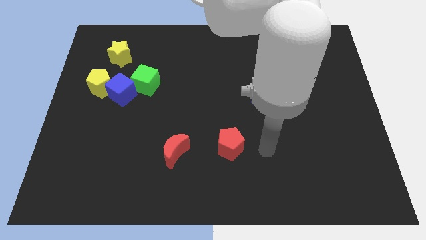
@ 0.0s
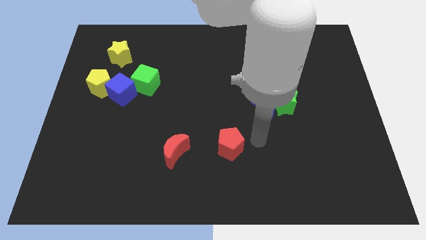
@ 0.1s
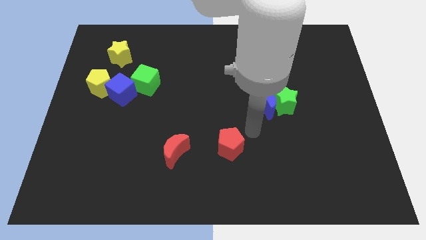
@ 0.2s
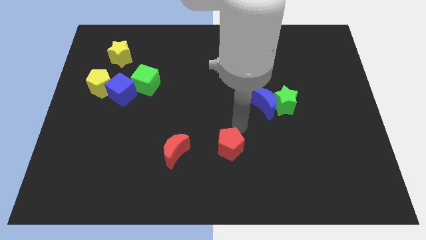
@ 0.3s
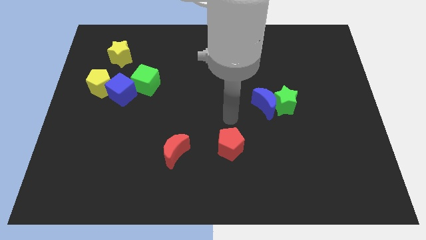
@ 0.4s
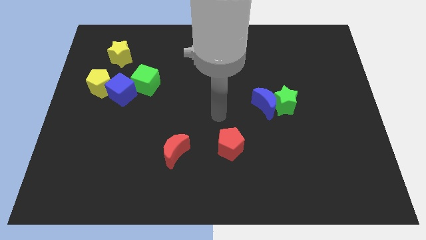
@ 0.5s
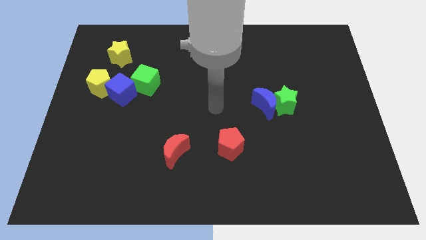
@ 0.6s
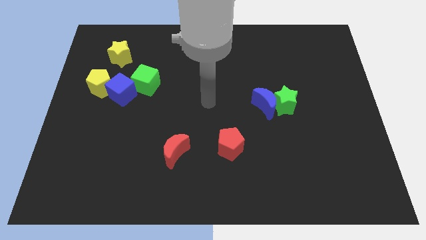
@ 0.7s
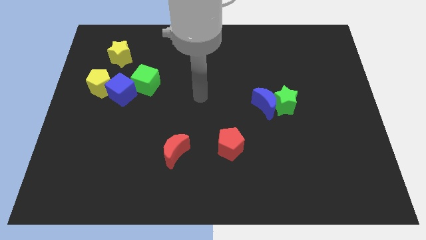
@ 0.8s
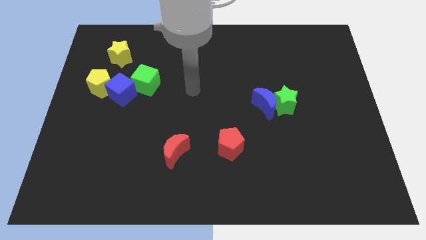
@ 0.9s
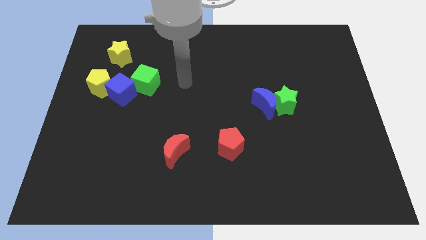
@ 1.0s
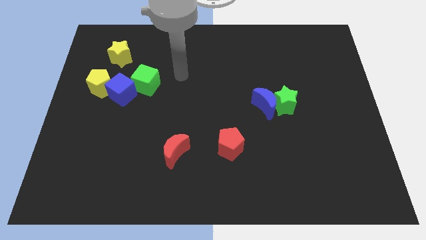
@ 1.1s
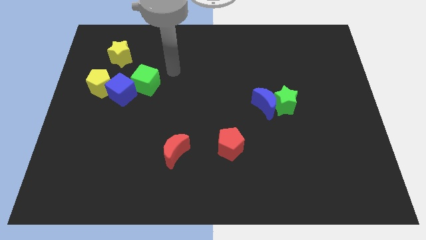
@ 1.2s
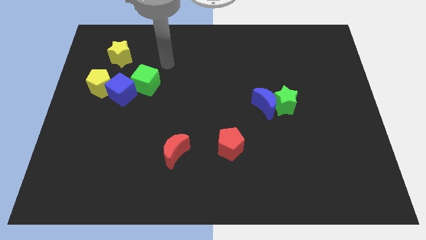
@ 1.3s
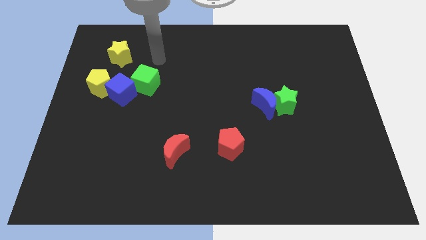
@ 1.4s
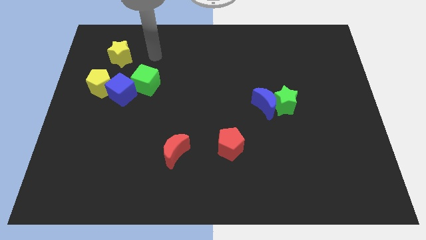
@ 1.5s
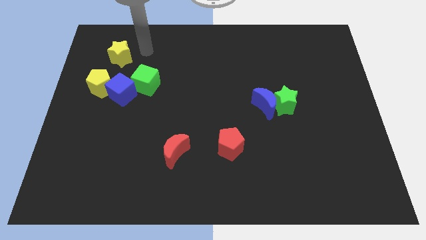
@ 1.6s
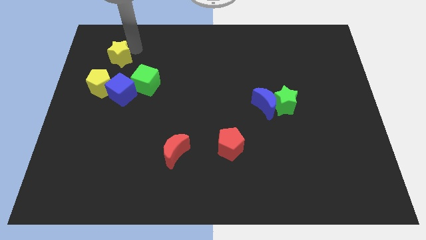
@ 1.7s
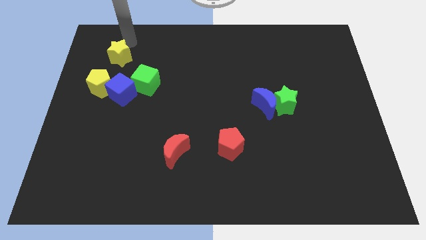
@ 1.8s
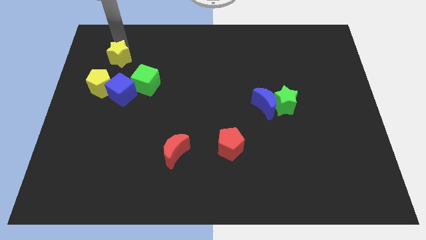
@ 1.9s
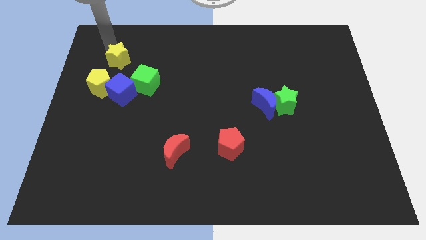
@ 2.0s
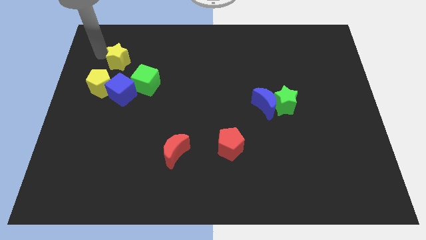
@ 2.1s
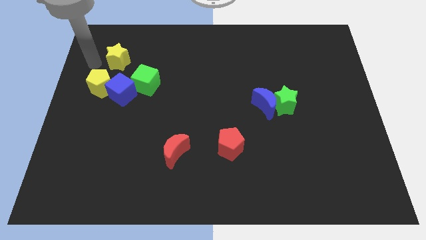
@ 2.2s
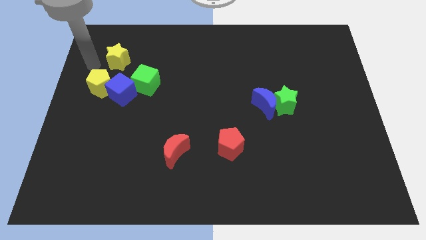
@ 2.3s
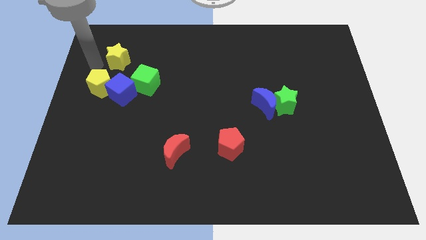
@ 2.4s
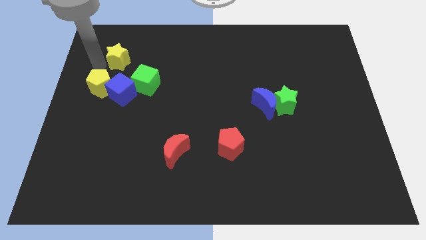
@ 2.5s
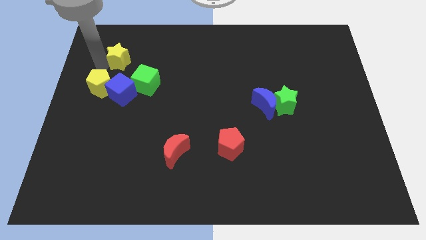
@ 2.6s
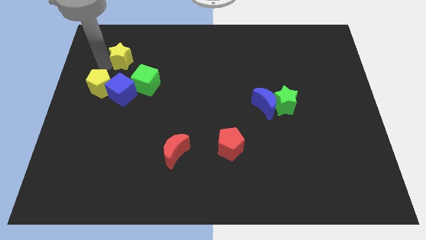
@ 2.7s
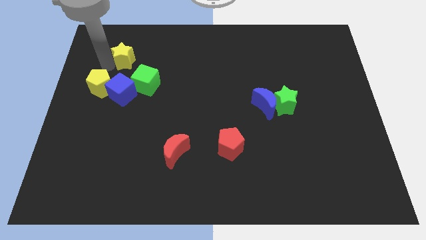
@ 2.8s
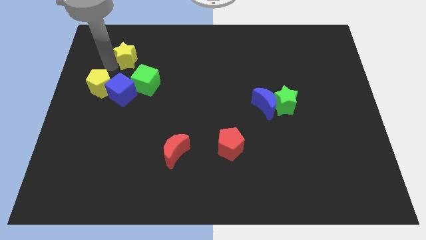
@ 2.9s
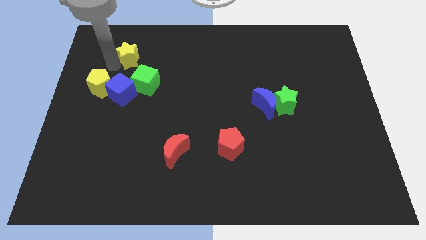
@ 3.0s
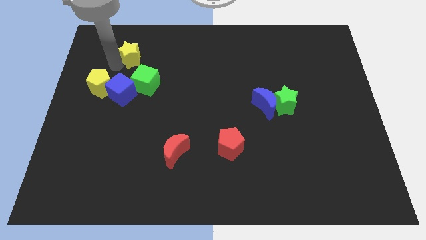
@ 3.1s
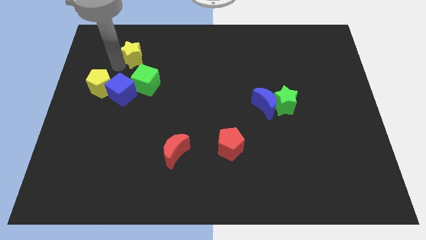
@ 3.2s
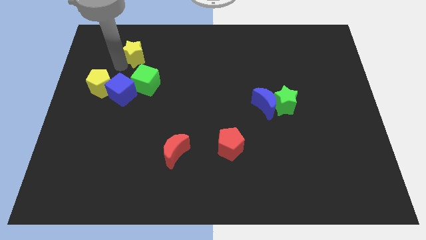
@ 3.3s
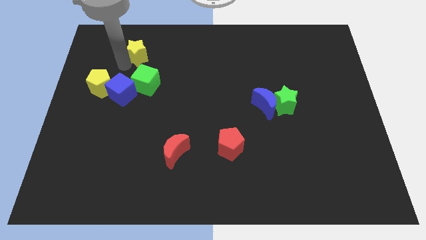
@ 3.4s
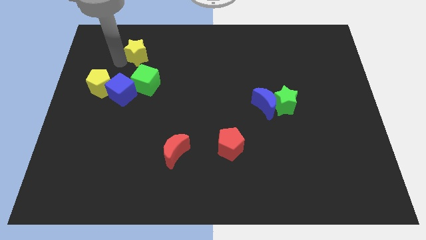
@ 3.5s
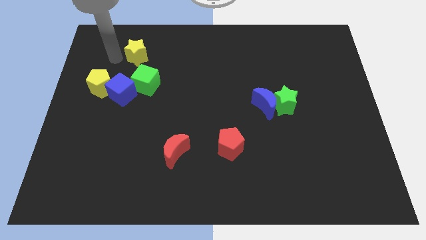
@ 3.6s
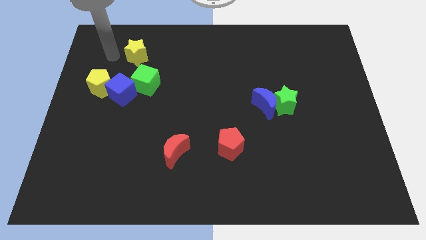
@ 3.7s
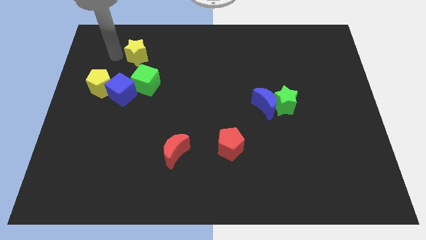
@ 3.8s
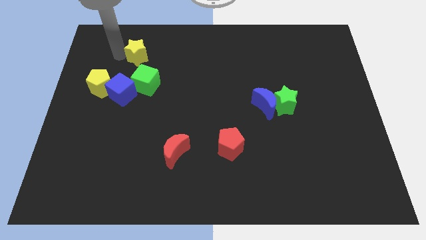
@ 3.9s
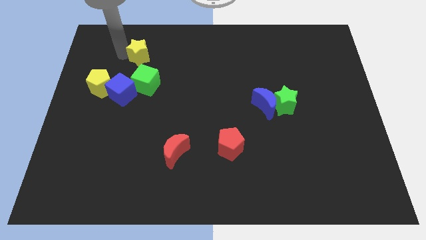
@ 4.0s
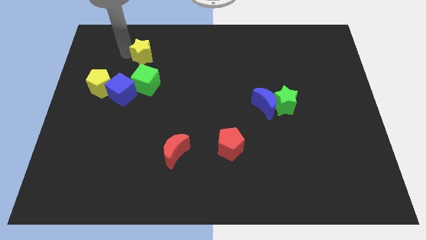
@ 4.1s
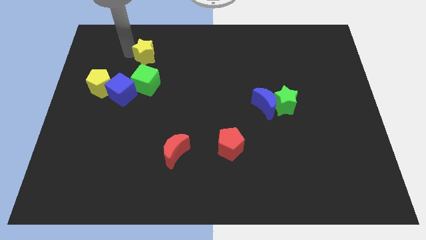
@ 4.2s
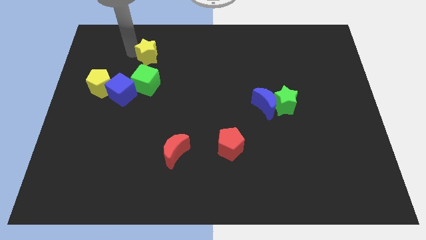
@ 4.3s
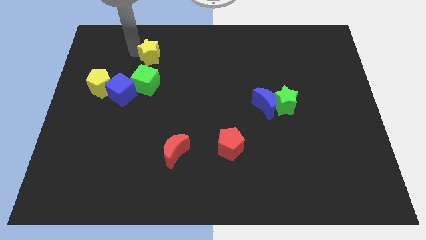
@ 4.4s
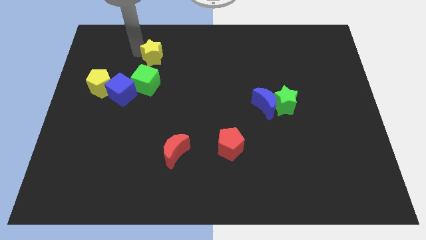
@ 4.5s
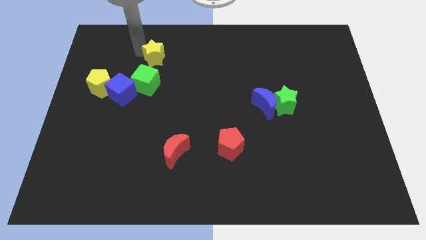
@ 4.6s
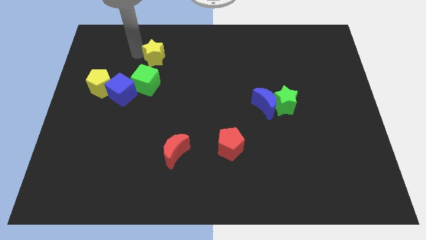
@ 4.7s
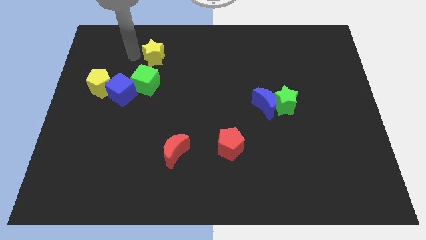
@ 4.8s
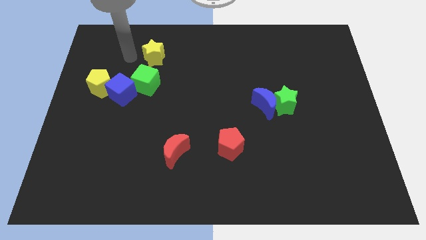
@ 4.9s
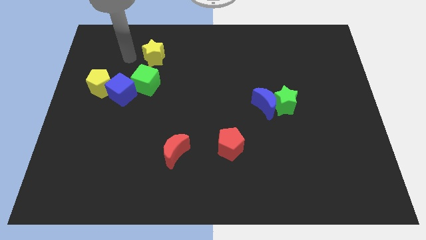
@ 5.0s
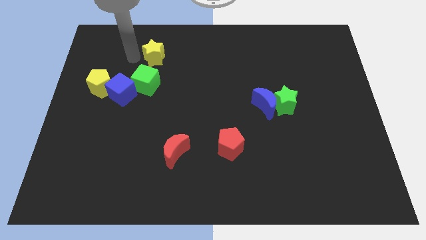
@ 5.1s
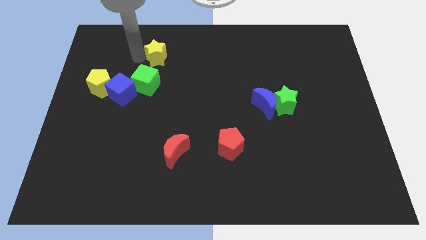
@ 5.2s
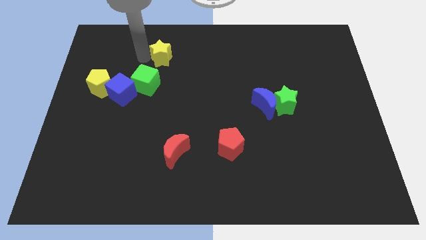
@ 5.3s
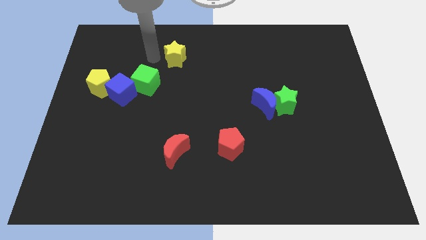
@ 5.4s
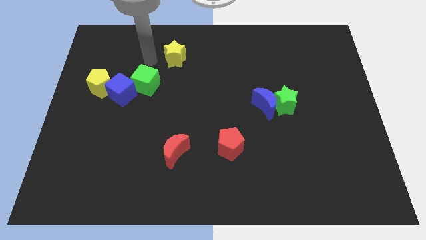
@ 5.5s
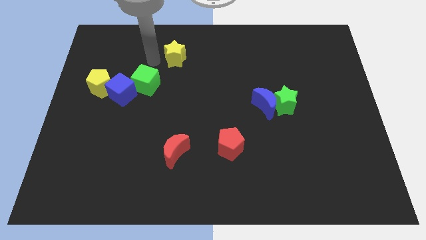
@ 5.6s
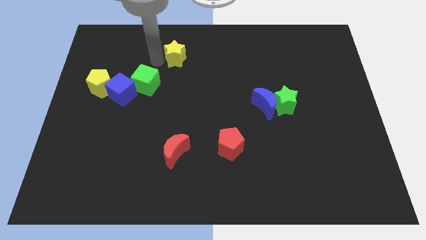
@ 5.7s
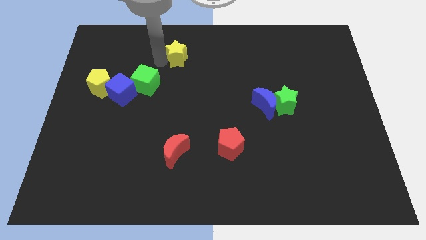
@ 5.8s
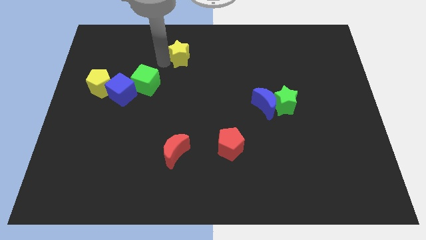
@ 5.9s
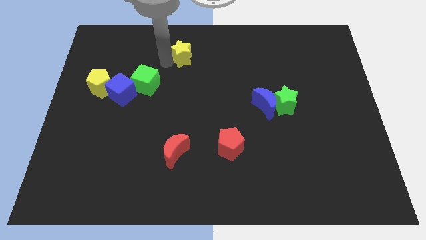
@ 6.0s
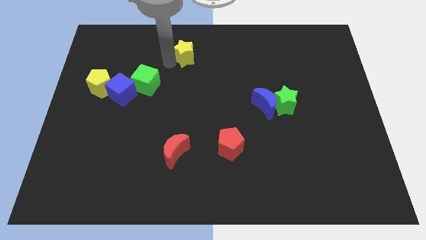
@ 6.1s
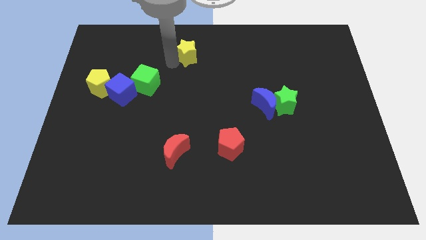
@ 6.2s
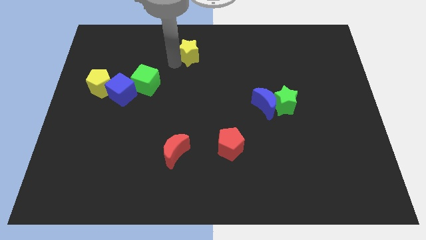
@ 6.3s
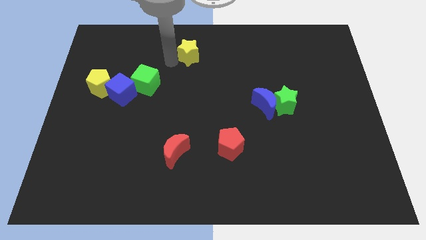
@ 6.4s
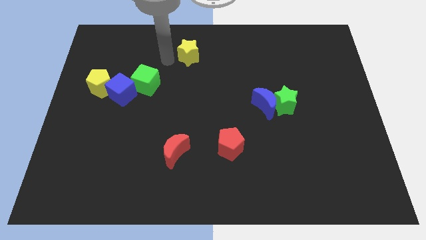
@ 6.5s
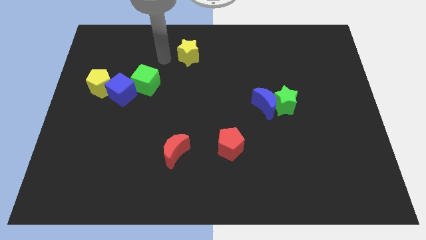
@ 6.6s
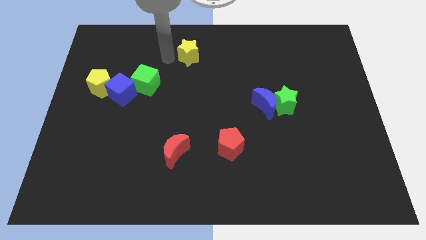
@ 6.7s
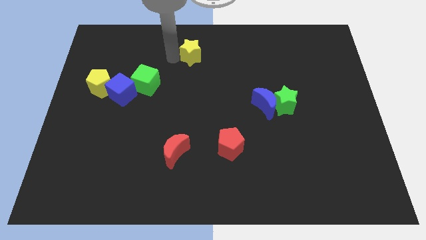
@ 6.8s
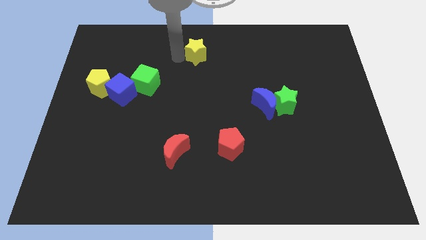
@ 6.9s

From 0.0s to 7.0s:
move the yellow star to the right

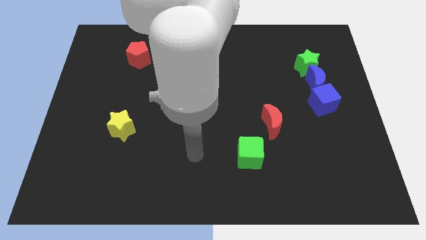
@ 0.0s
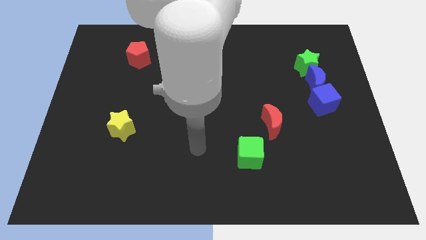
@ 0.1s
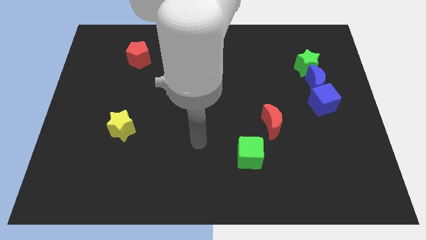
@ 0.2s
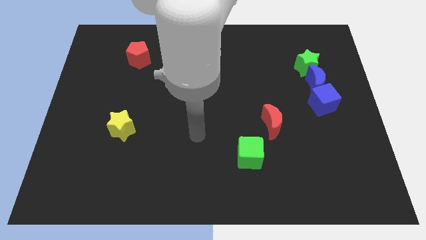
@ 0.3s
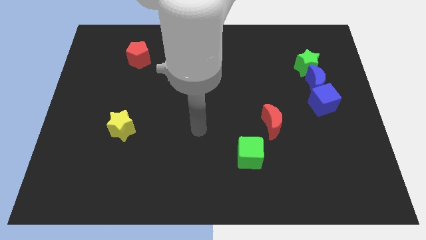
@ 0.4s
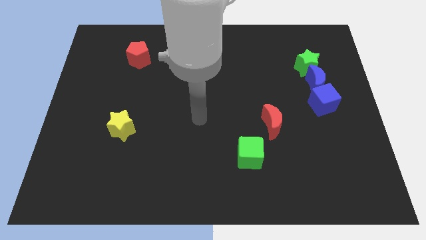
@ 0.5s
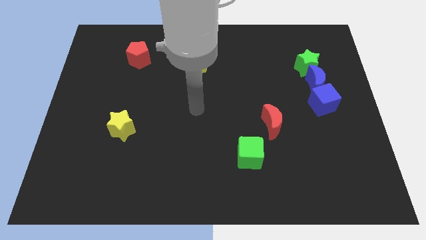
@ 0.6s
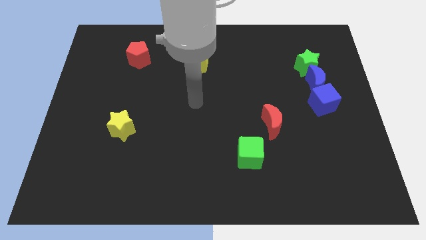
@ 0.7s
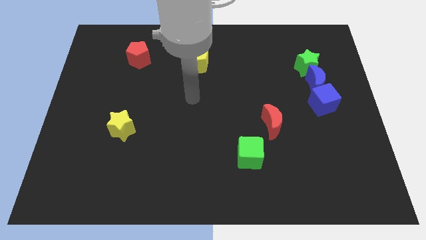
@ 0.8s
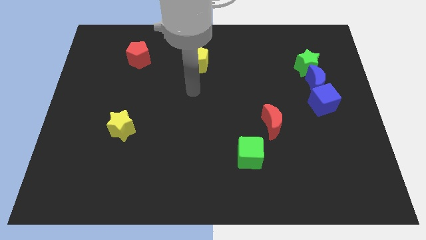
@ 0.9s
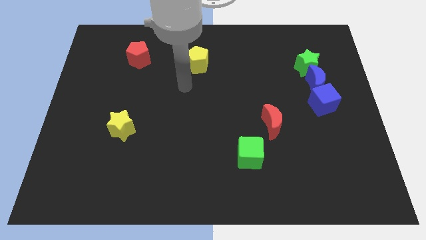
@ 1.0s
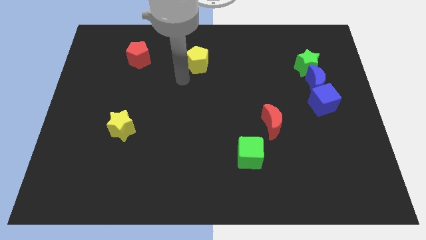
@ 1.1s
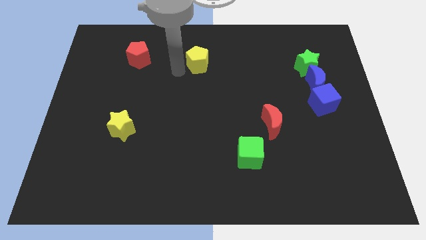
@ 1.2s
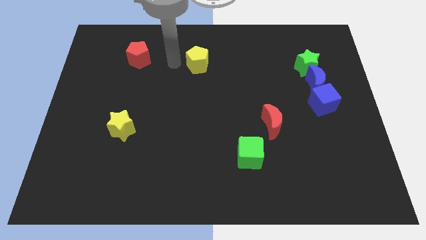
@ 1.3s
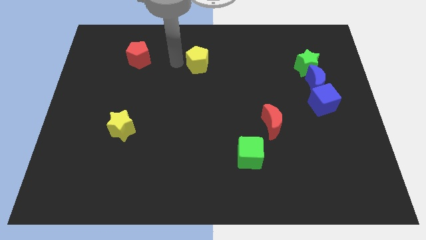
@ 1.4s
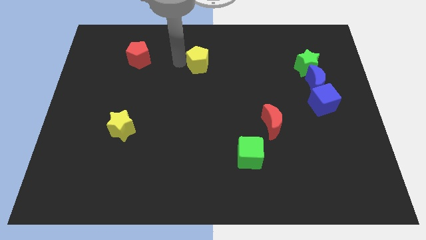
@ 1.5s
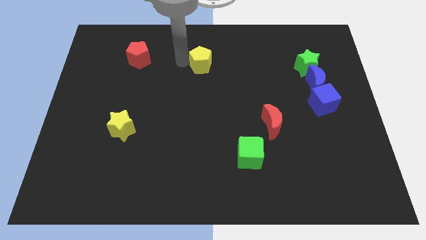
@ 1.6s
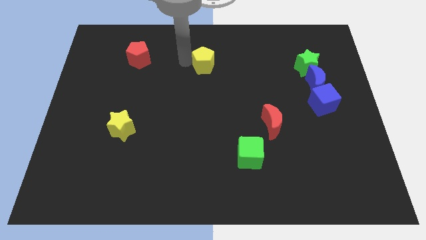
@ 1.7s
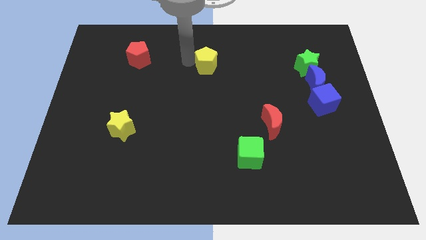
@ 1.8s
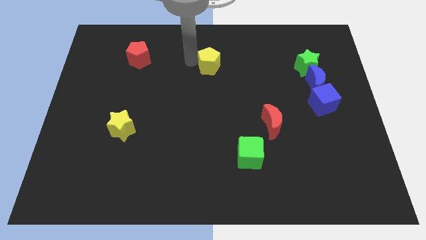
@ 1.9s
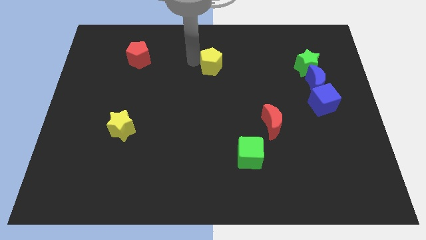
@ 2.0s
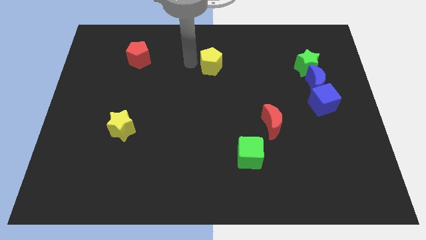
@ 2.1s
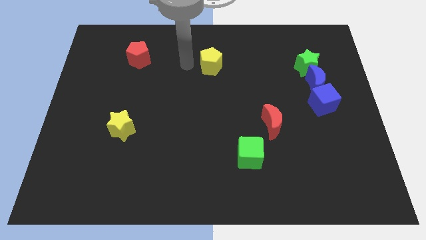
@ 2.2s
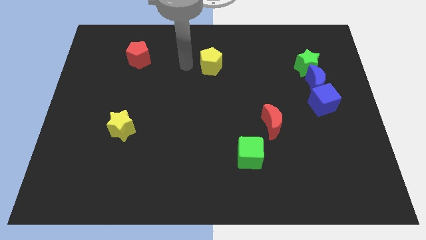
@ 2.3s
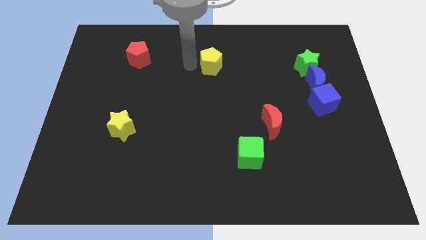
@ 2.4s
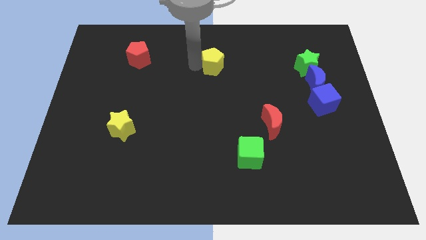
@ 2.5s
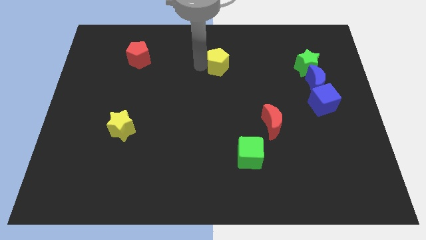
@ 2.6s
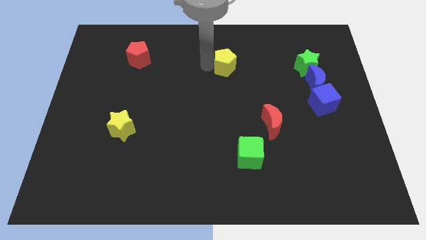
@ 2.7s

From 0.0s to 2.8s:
slightly move the yellow pentagon to the right
